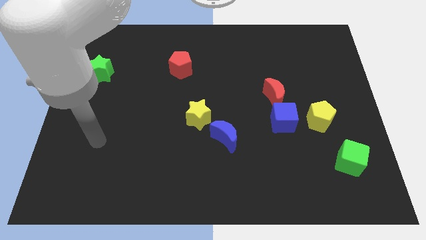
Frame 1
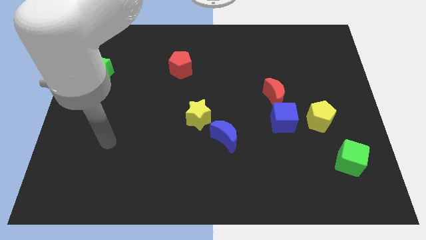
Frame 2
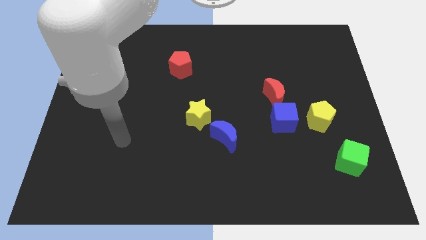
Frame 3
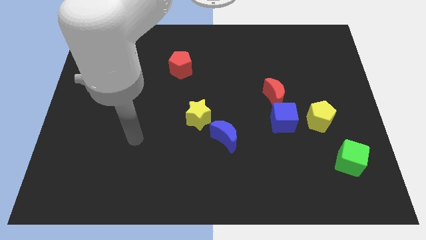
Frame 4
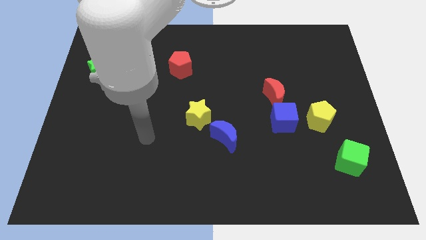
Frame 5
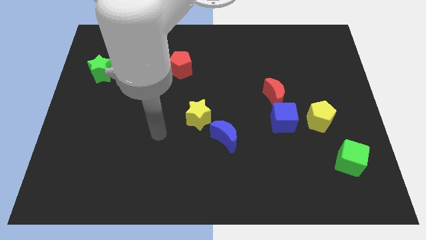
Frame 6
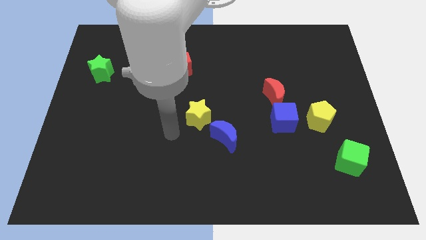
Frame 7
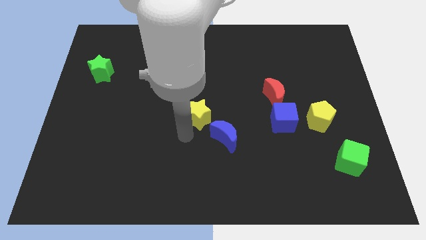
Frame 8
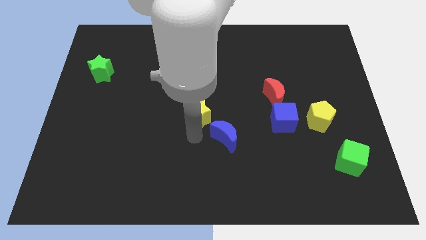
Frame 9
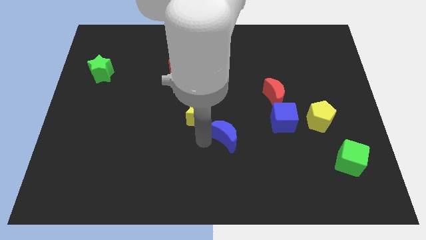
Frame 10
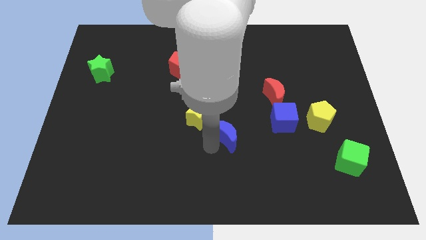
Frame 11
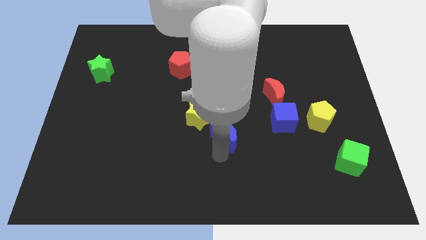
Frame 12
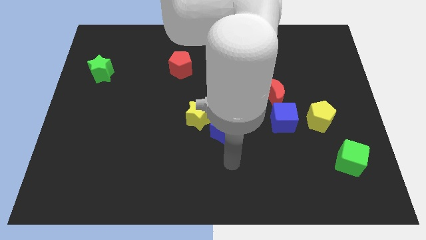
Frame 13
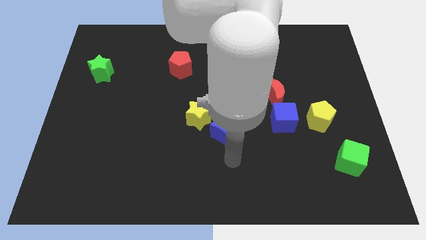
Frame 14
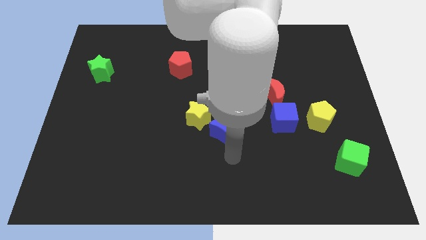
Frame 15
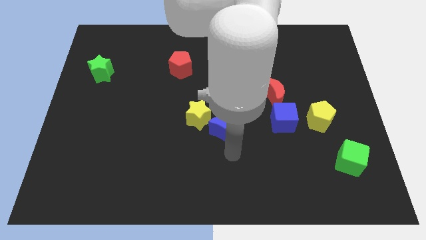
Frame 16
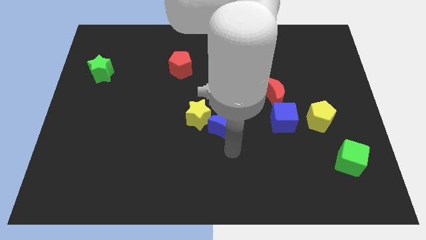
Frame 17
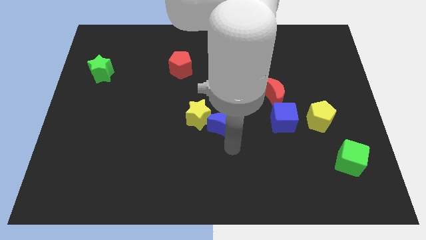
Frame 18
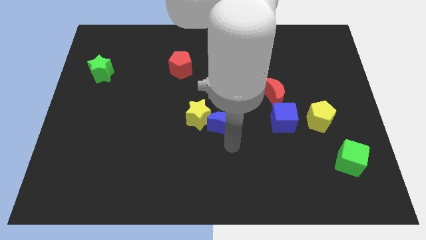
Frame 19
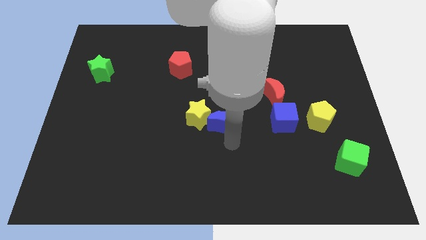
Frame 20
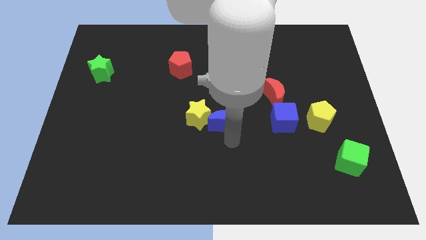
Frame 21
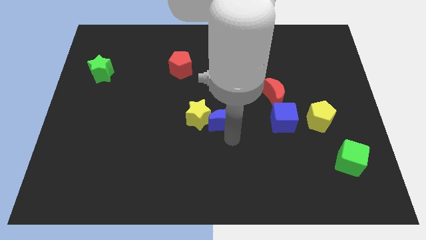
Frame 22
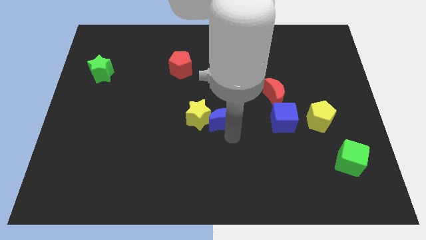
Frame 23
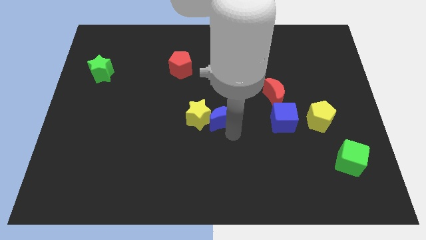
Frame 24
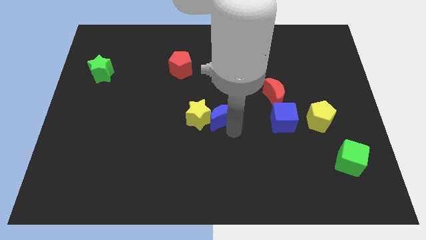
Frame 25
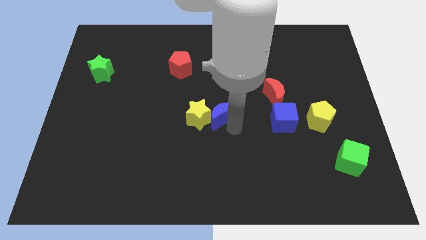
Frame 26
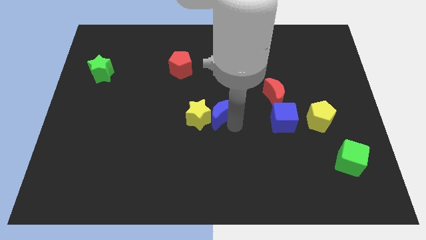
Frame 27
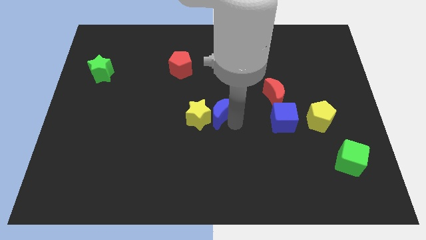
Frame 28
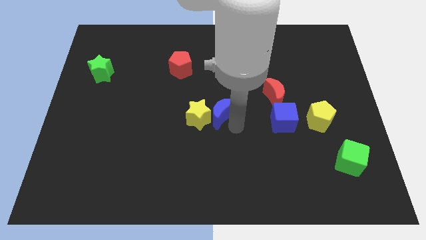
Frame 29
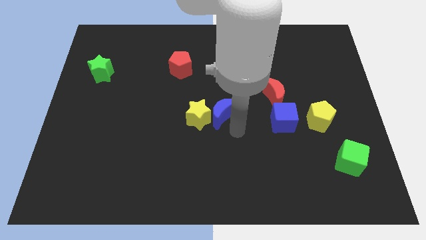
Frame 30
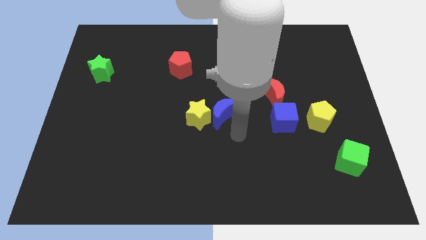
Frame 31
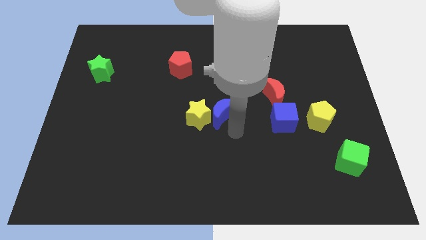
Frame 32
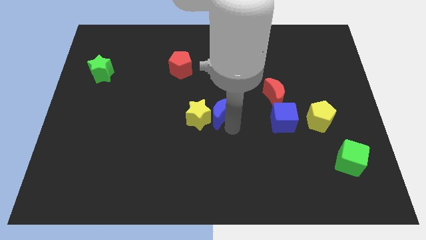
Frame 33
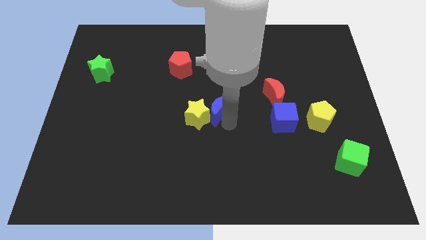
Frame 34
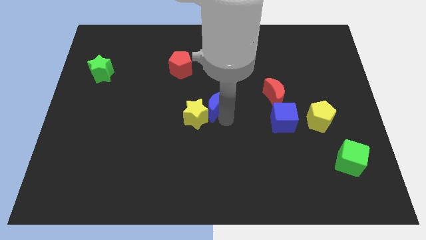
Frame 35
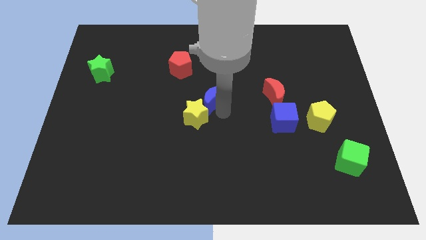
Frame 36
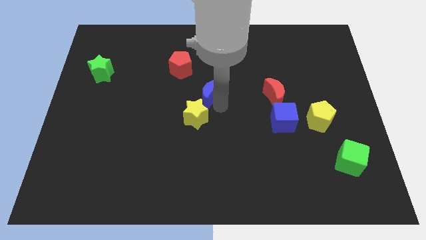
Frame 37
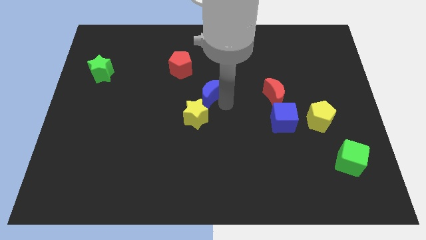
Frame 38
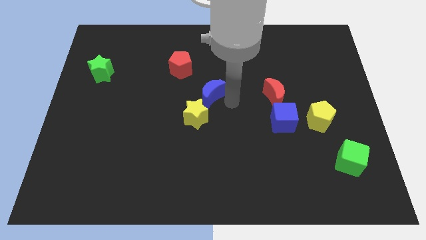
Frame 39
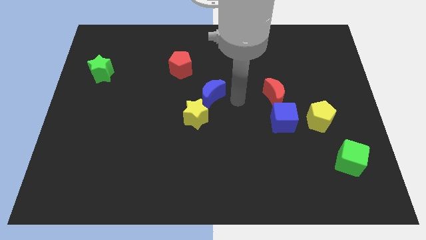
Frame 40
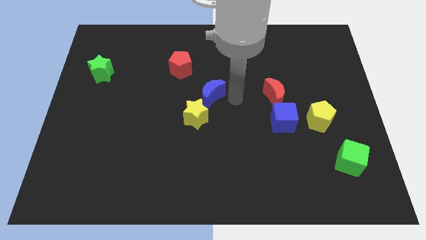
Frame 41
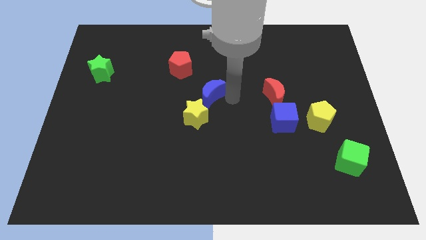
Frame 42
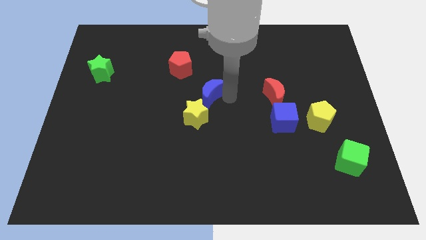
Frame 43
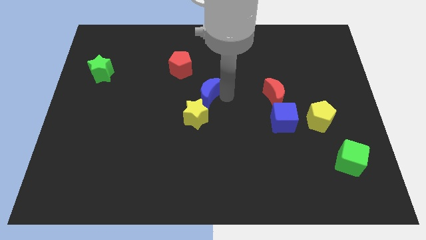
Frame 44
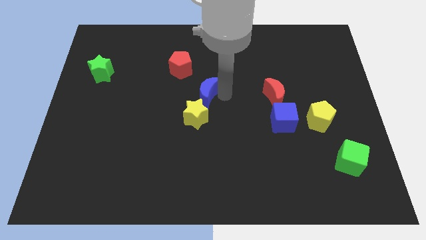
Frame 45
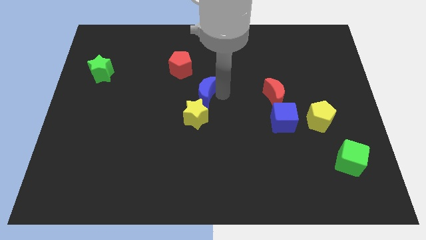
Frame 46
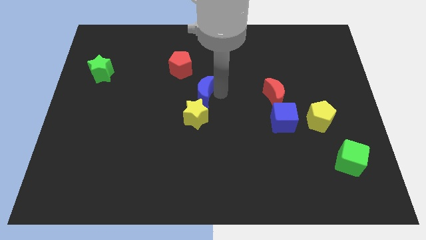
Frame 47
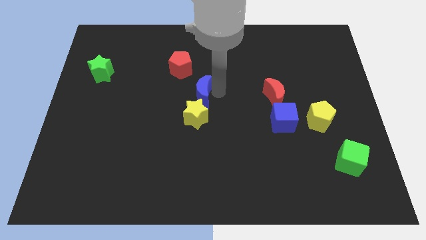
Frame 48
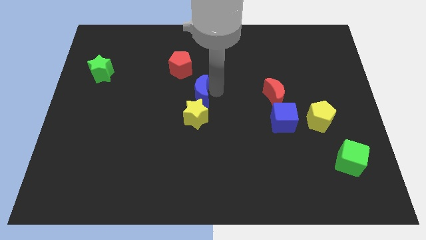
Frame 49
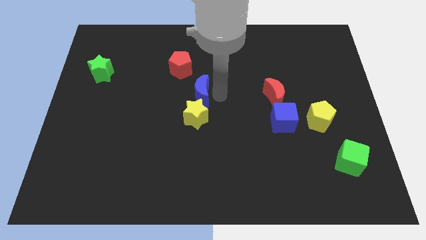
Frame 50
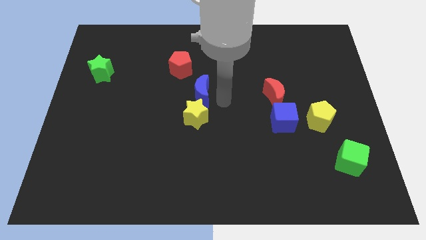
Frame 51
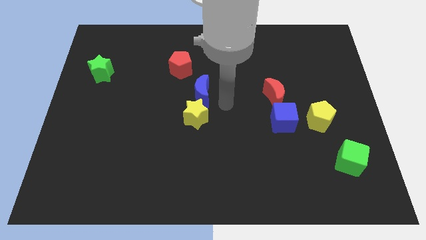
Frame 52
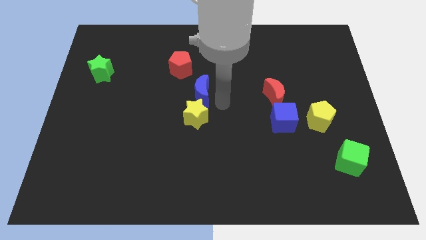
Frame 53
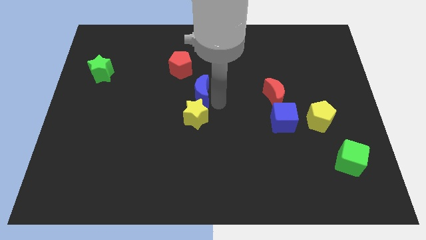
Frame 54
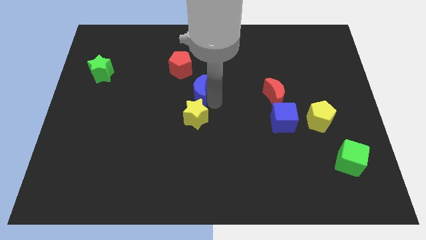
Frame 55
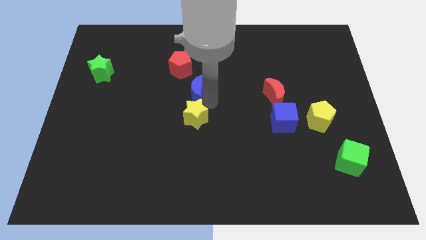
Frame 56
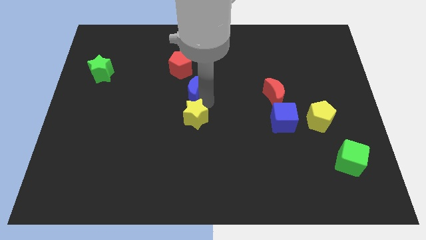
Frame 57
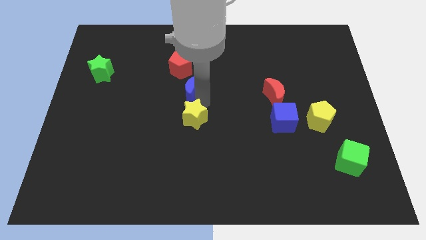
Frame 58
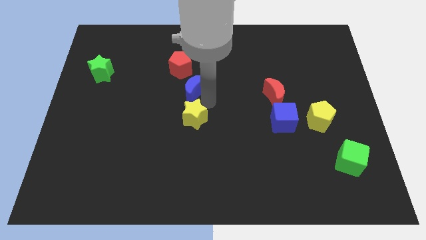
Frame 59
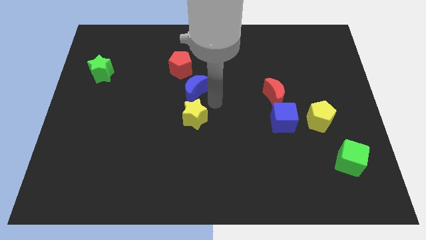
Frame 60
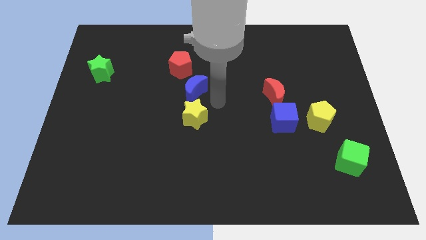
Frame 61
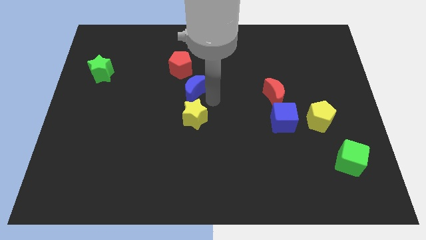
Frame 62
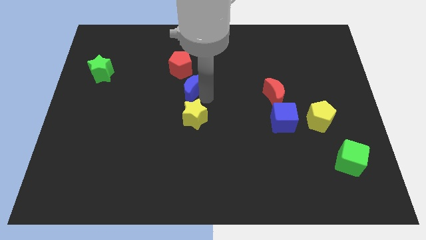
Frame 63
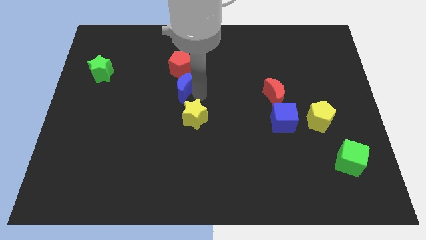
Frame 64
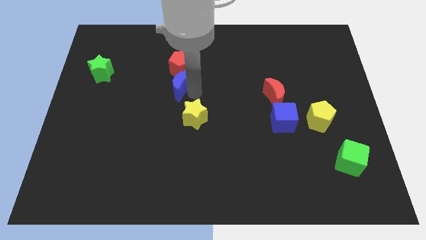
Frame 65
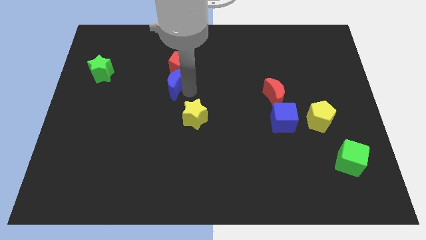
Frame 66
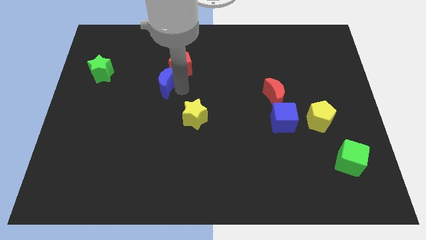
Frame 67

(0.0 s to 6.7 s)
push the blue moon up and to the left diagonally

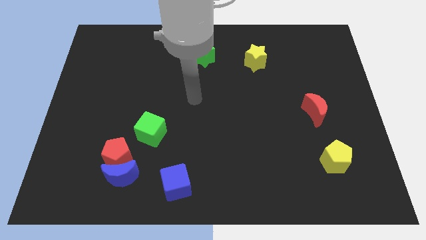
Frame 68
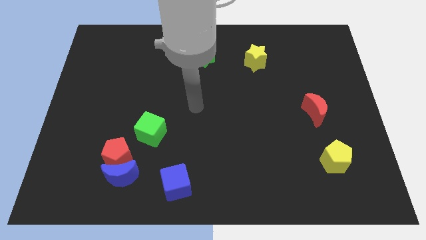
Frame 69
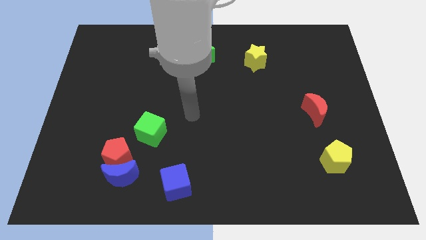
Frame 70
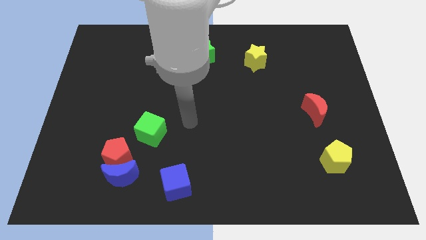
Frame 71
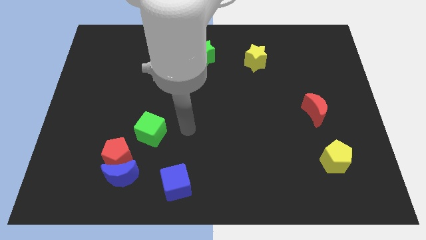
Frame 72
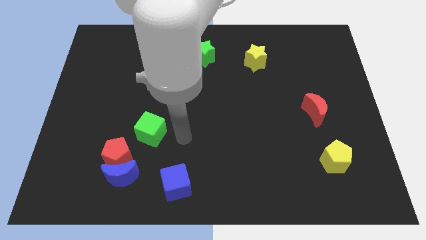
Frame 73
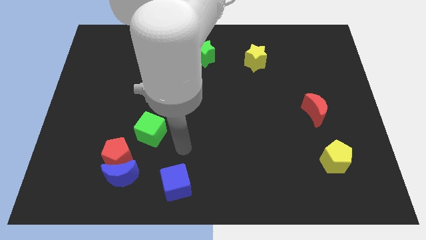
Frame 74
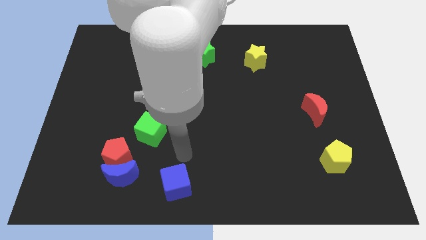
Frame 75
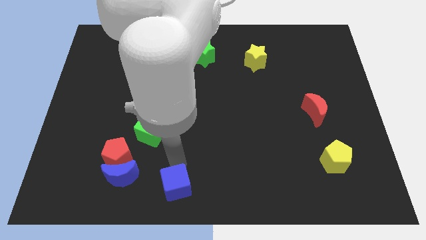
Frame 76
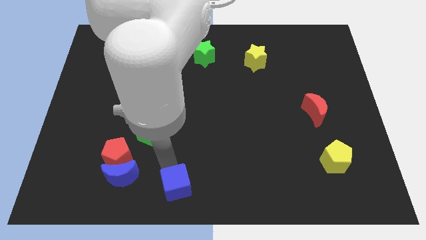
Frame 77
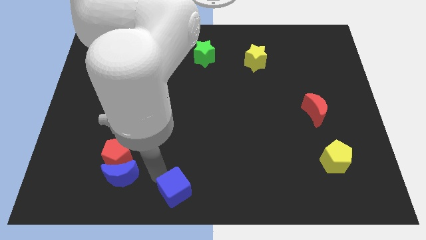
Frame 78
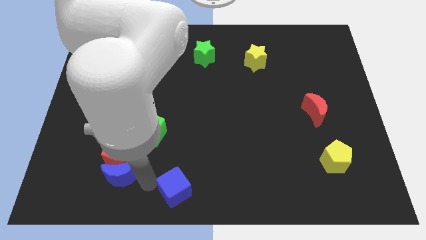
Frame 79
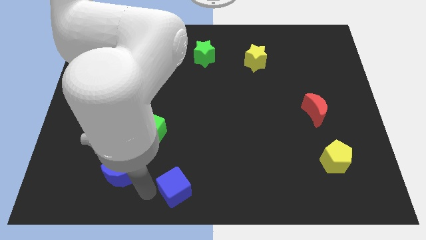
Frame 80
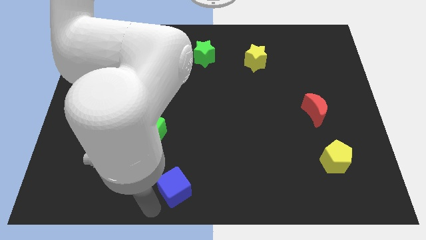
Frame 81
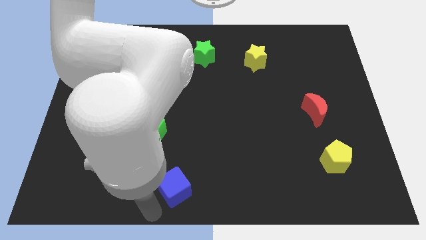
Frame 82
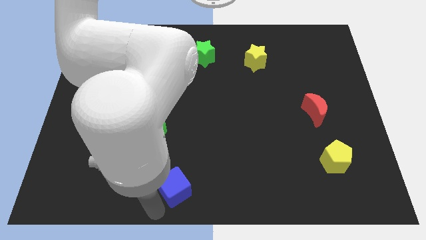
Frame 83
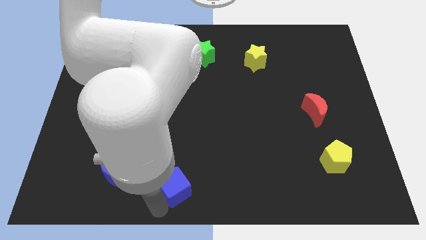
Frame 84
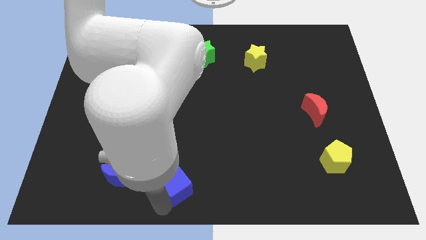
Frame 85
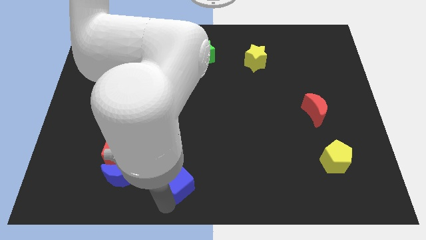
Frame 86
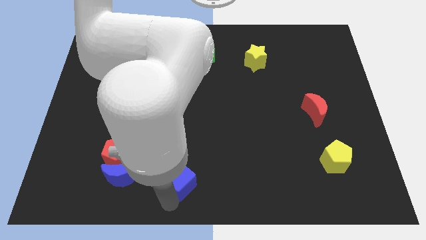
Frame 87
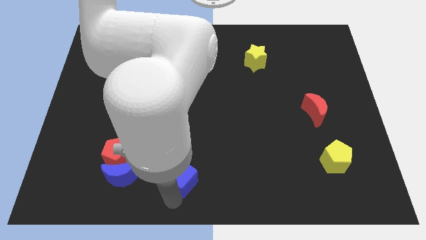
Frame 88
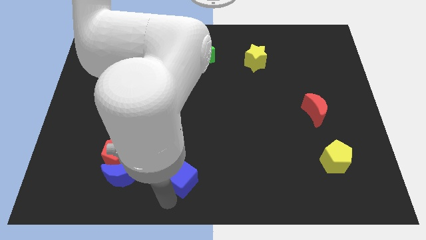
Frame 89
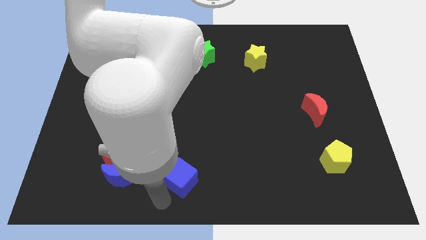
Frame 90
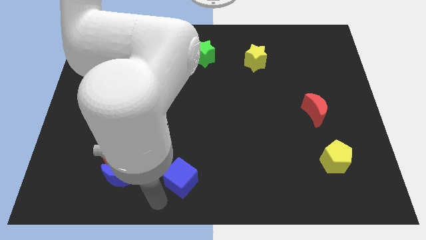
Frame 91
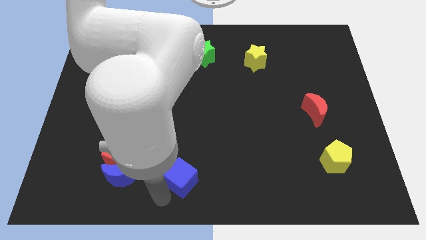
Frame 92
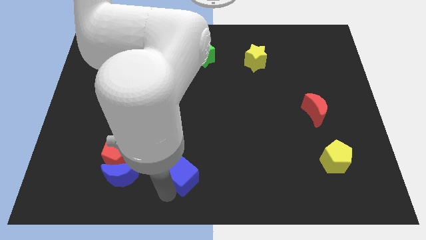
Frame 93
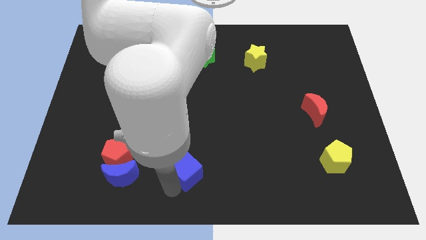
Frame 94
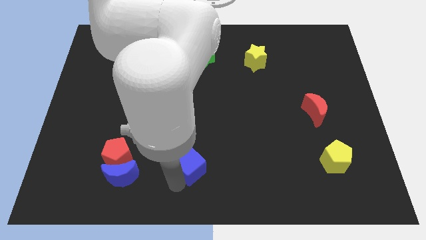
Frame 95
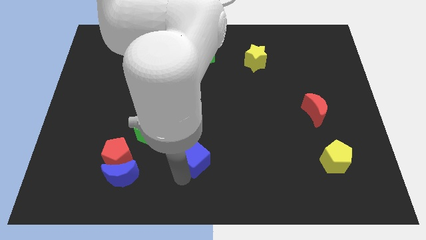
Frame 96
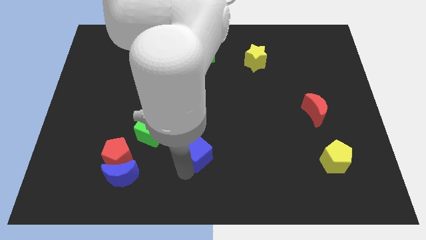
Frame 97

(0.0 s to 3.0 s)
slide the blue cube up and to the right diagonally a bit
